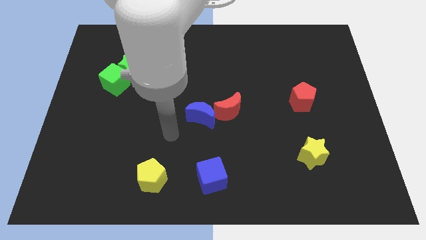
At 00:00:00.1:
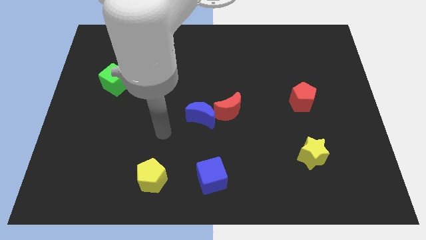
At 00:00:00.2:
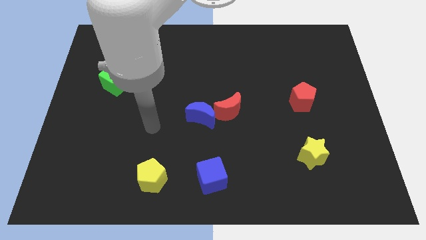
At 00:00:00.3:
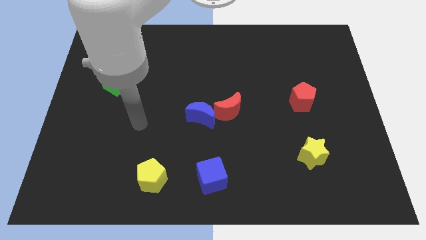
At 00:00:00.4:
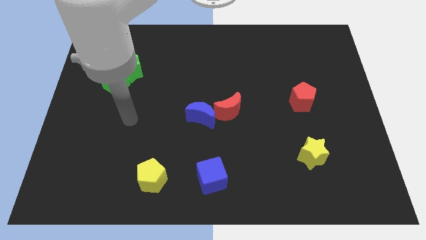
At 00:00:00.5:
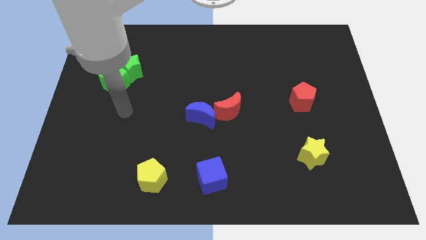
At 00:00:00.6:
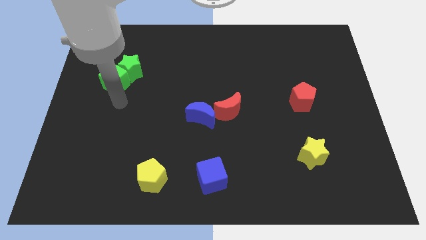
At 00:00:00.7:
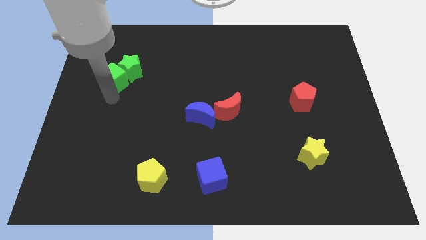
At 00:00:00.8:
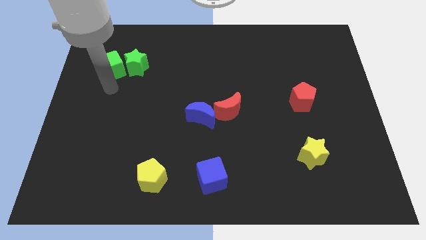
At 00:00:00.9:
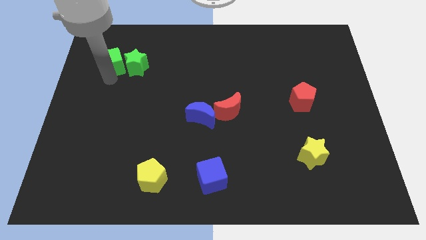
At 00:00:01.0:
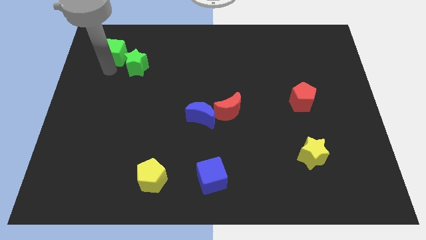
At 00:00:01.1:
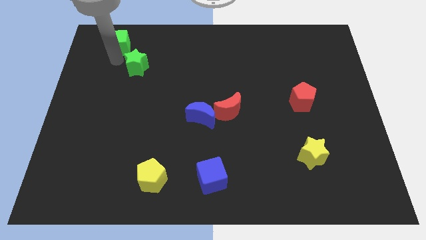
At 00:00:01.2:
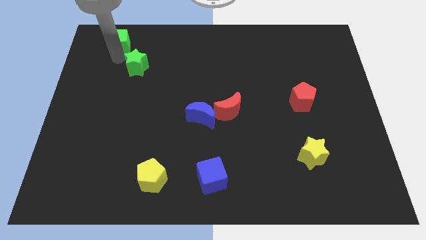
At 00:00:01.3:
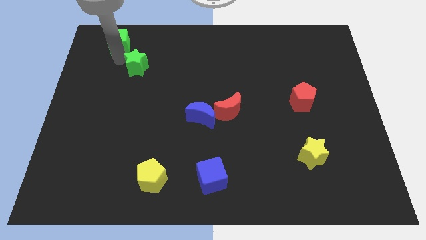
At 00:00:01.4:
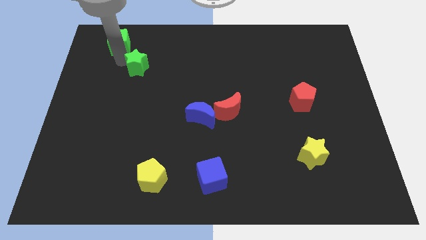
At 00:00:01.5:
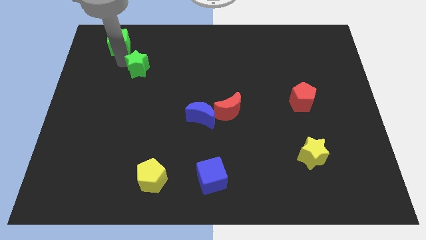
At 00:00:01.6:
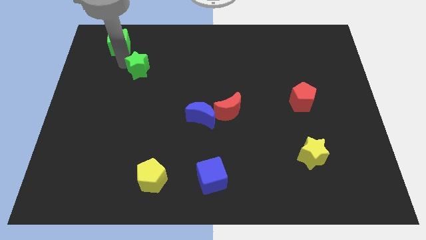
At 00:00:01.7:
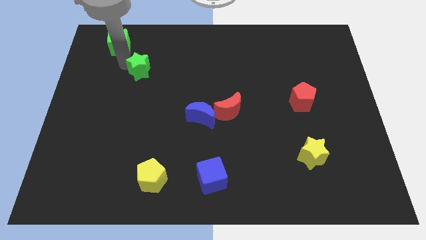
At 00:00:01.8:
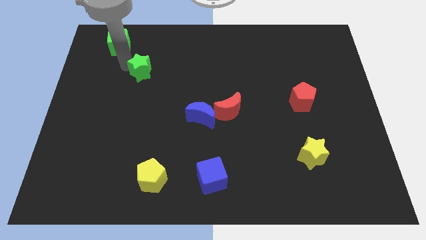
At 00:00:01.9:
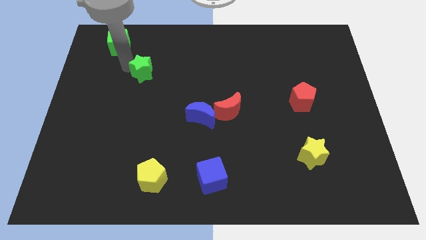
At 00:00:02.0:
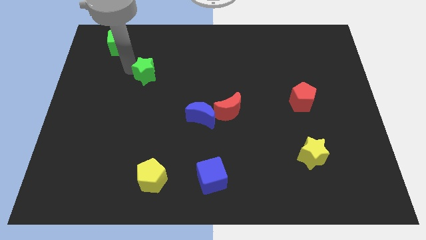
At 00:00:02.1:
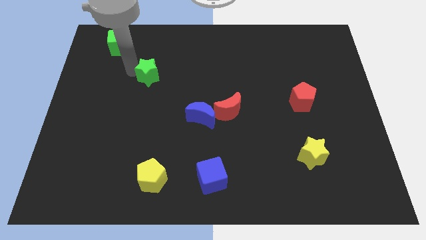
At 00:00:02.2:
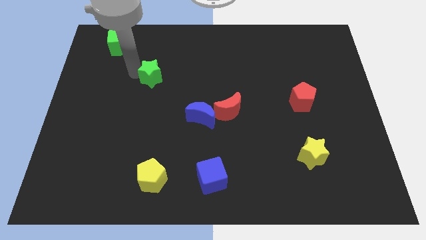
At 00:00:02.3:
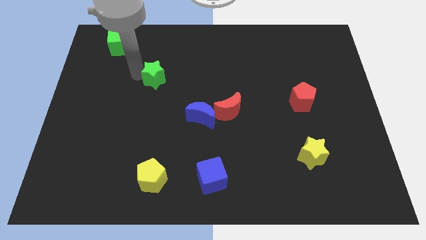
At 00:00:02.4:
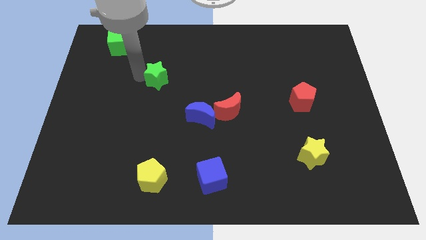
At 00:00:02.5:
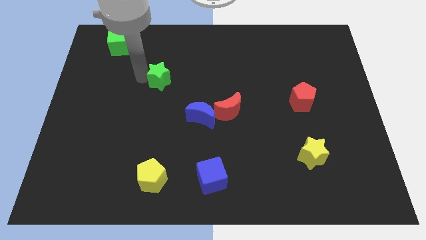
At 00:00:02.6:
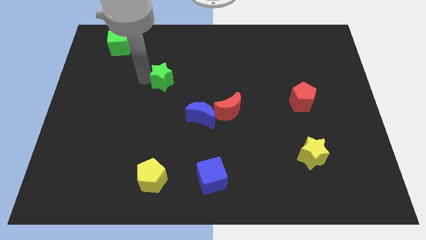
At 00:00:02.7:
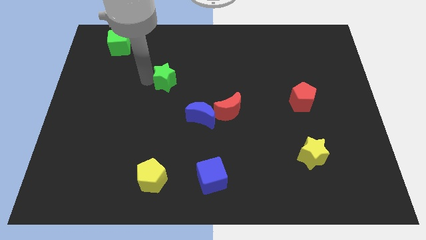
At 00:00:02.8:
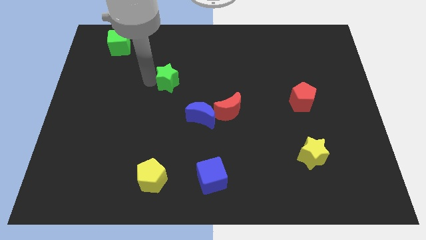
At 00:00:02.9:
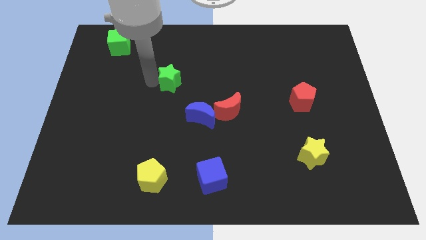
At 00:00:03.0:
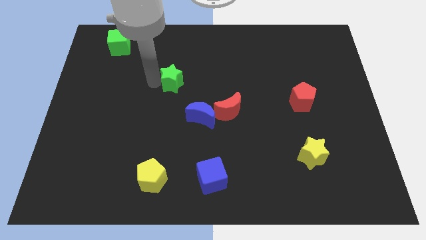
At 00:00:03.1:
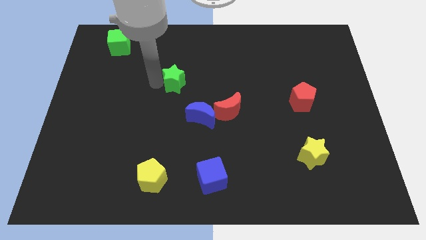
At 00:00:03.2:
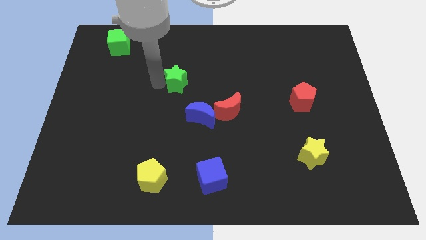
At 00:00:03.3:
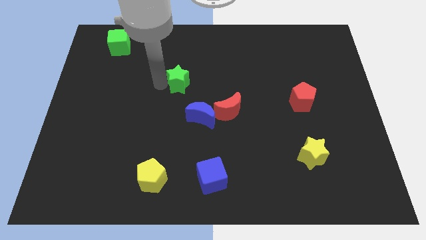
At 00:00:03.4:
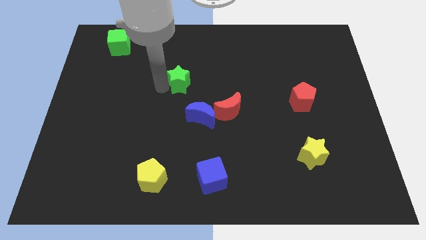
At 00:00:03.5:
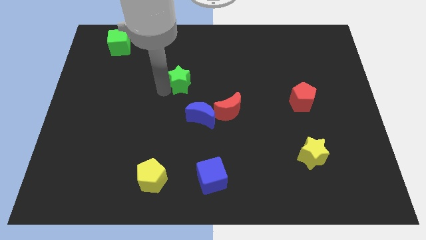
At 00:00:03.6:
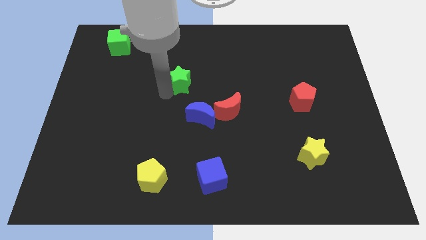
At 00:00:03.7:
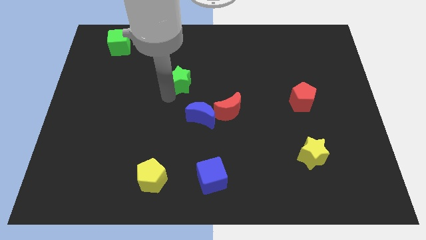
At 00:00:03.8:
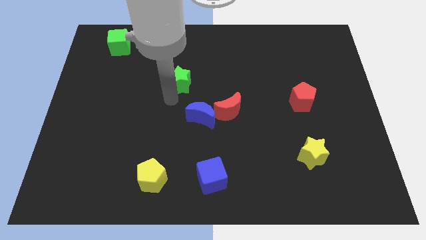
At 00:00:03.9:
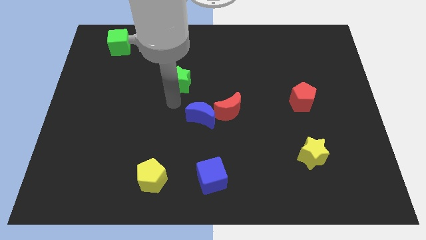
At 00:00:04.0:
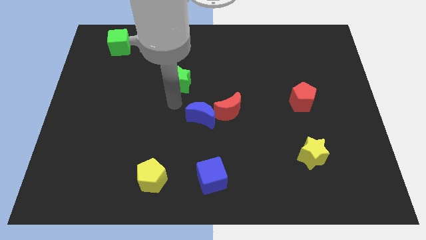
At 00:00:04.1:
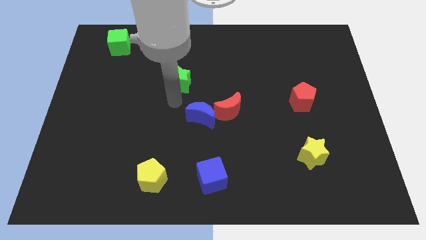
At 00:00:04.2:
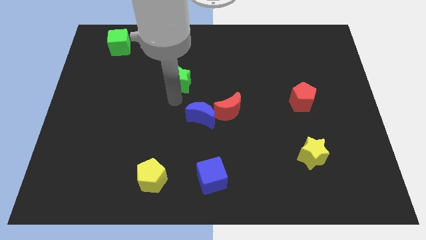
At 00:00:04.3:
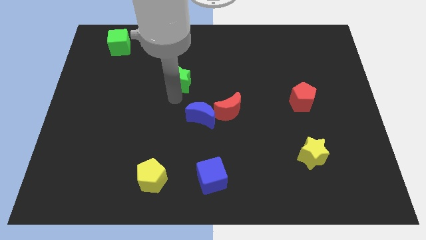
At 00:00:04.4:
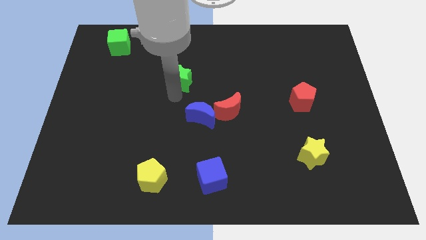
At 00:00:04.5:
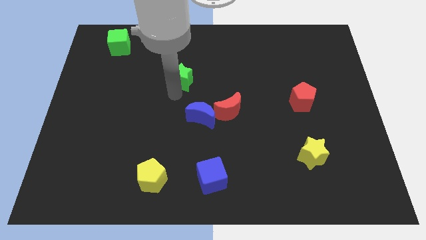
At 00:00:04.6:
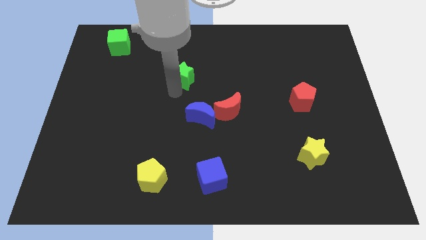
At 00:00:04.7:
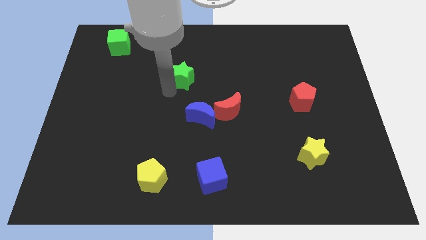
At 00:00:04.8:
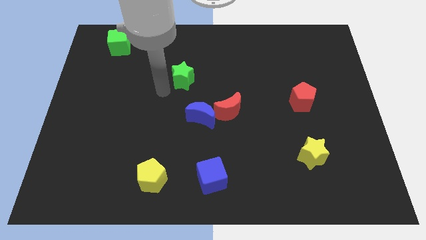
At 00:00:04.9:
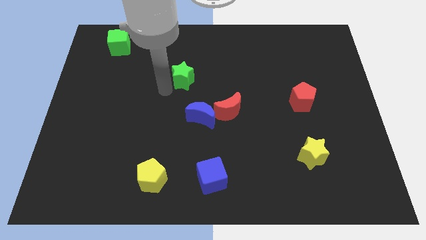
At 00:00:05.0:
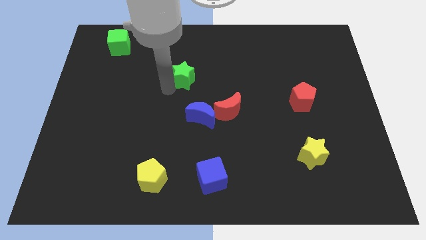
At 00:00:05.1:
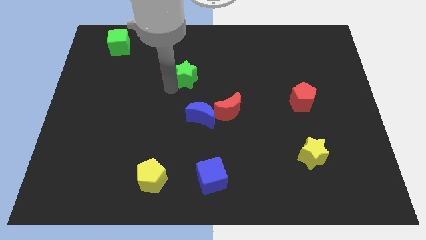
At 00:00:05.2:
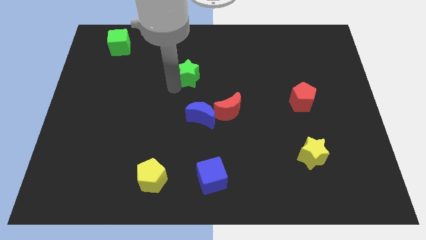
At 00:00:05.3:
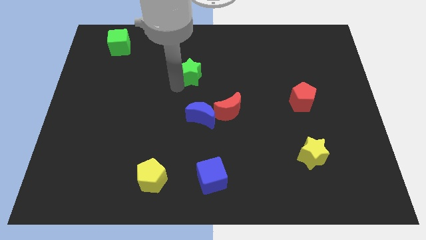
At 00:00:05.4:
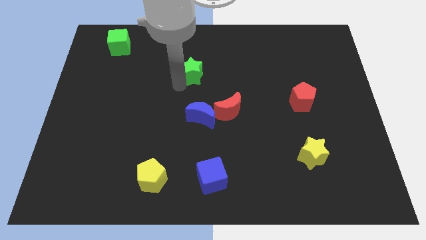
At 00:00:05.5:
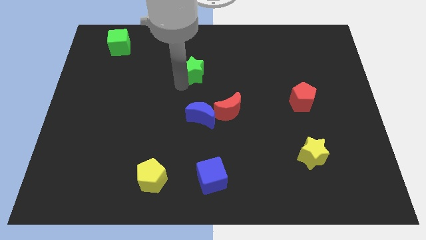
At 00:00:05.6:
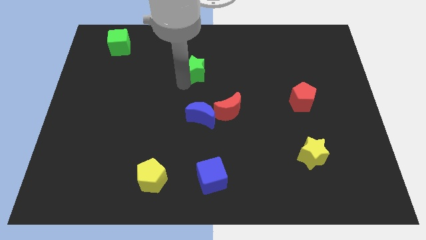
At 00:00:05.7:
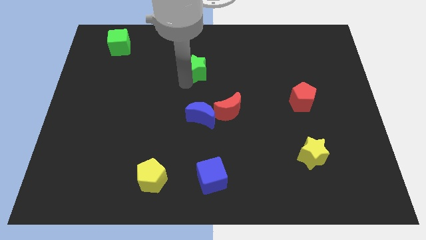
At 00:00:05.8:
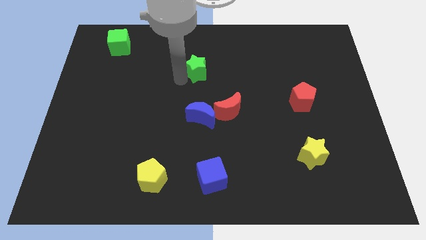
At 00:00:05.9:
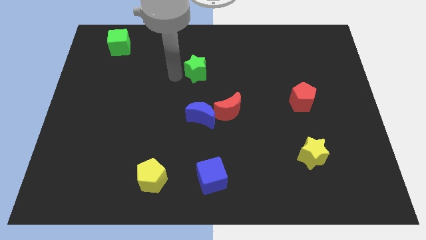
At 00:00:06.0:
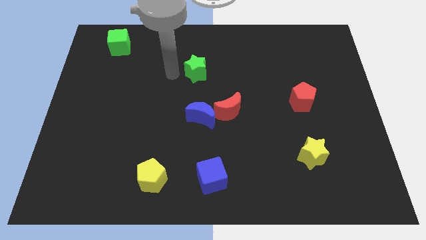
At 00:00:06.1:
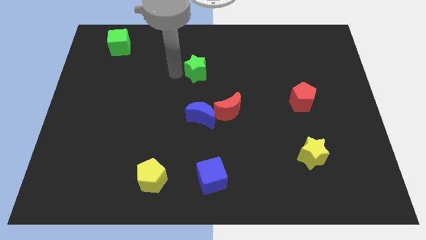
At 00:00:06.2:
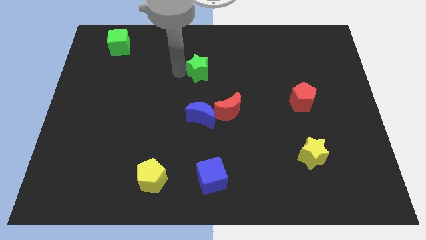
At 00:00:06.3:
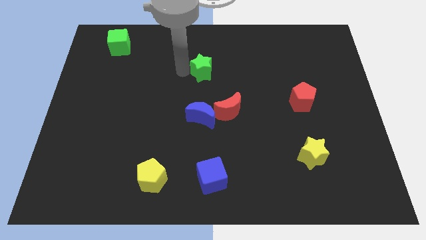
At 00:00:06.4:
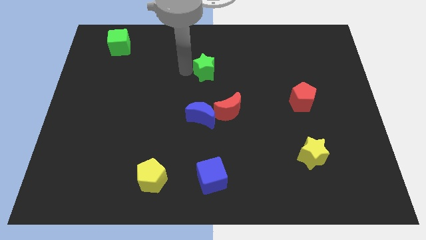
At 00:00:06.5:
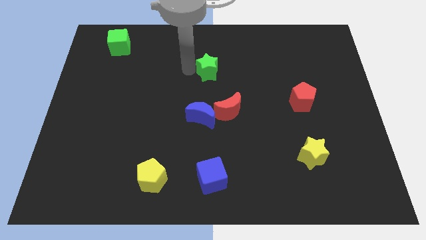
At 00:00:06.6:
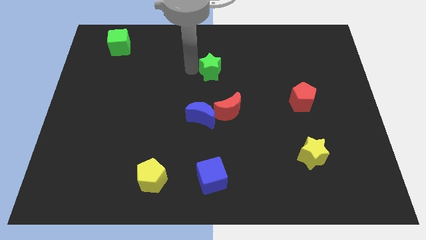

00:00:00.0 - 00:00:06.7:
slide the green star to the right

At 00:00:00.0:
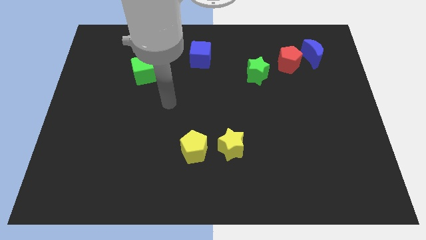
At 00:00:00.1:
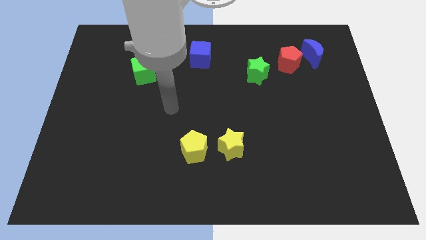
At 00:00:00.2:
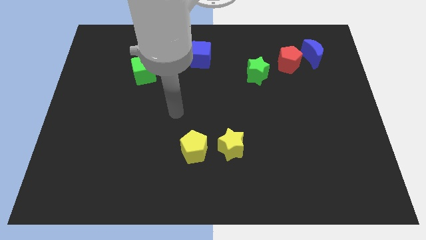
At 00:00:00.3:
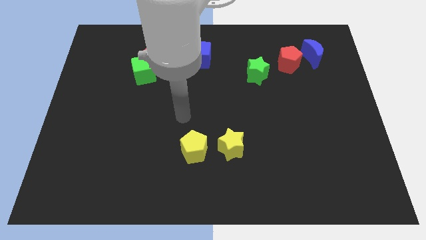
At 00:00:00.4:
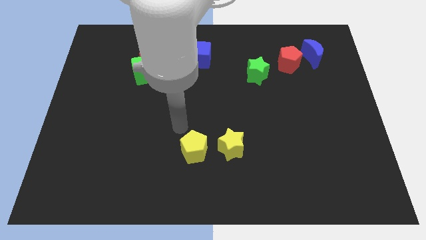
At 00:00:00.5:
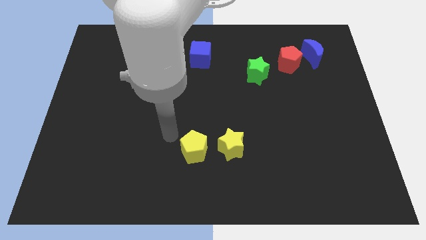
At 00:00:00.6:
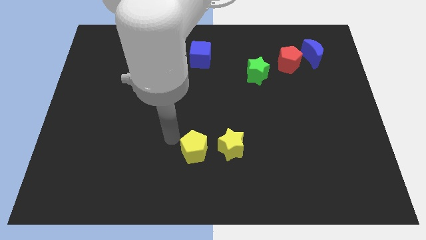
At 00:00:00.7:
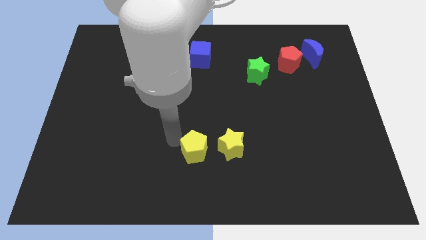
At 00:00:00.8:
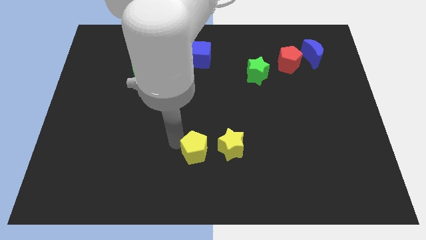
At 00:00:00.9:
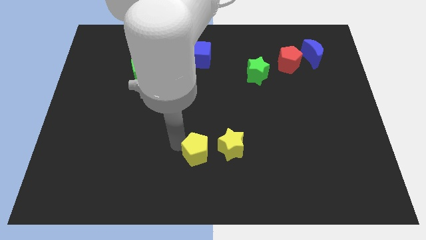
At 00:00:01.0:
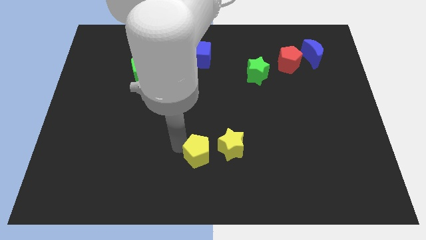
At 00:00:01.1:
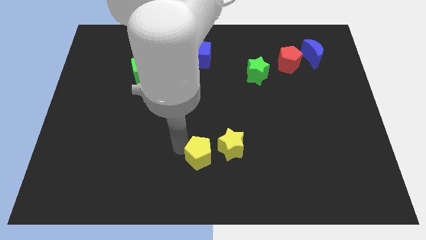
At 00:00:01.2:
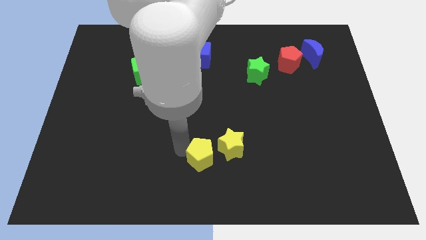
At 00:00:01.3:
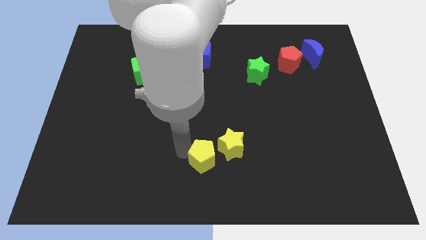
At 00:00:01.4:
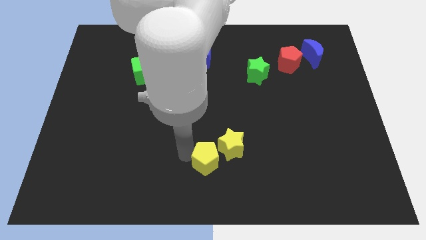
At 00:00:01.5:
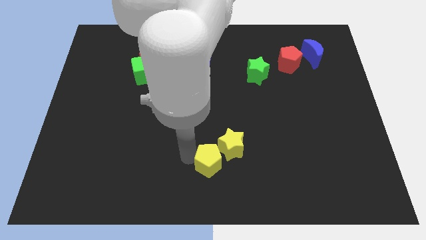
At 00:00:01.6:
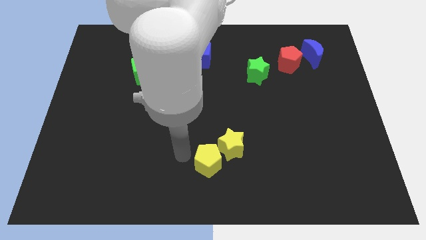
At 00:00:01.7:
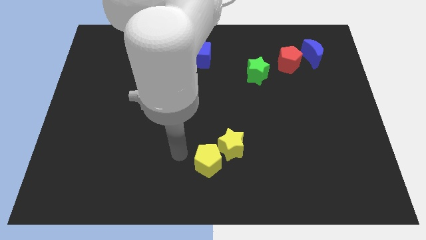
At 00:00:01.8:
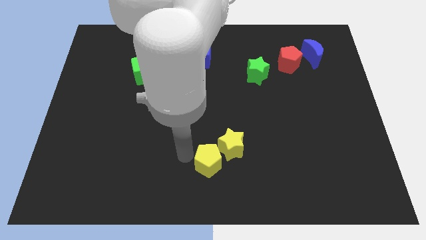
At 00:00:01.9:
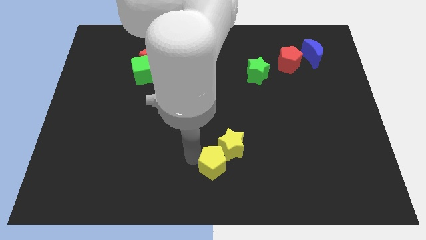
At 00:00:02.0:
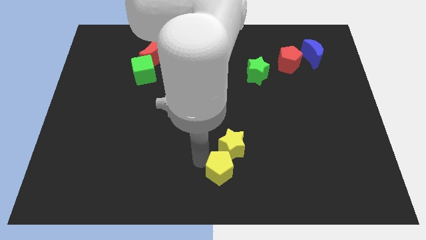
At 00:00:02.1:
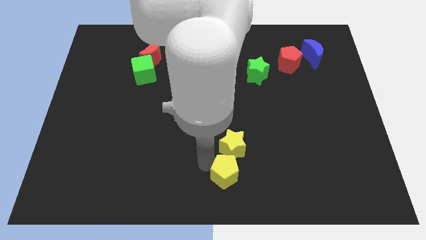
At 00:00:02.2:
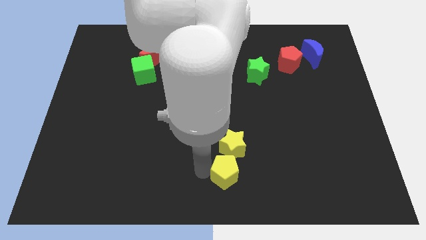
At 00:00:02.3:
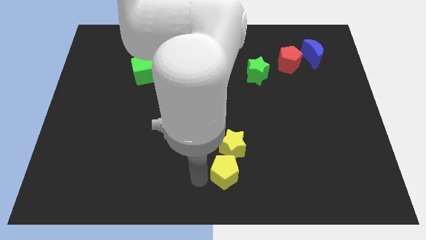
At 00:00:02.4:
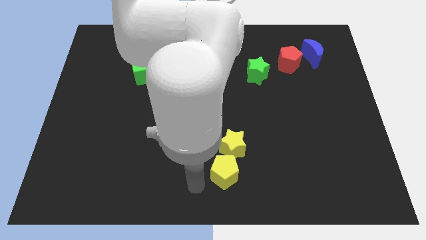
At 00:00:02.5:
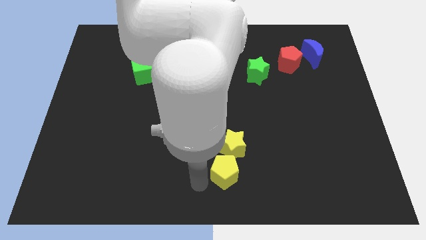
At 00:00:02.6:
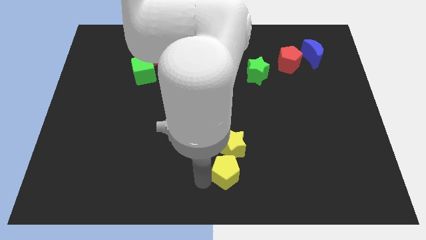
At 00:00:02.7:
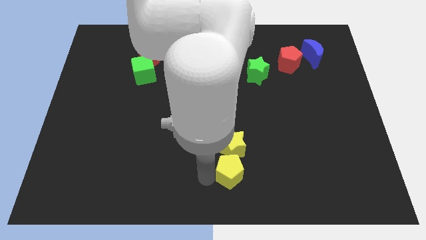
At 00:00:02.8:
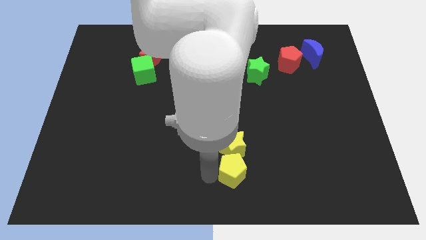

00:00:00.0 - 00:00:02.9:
slightly push the yellow pentagon right
